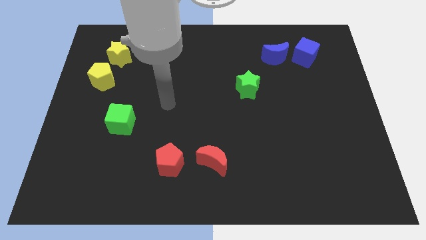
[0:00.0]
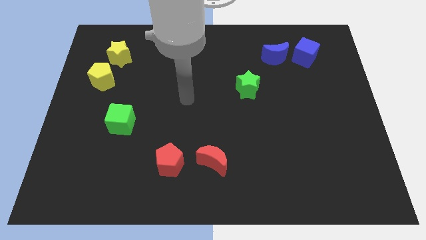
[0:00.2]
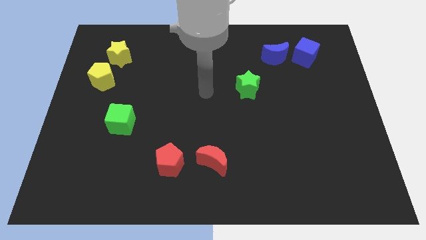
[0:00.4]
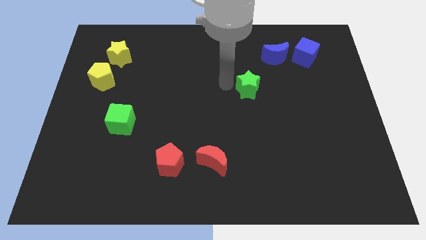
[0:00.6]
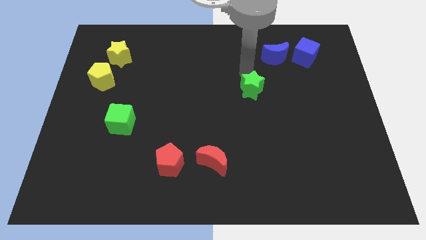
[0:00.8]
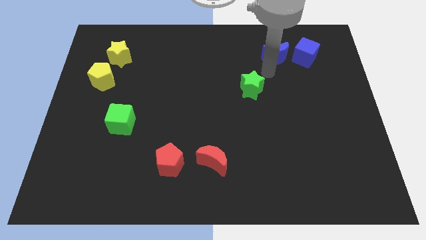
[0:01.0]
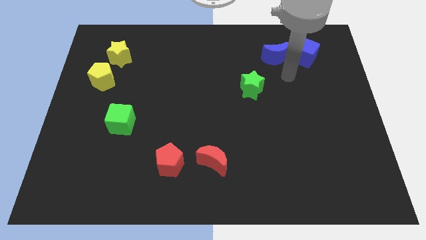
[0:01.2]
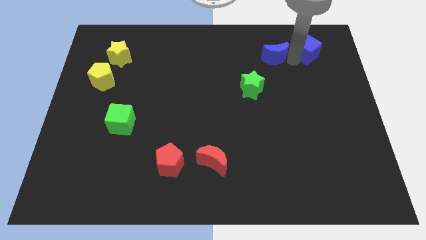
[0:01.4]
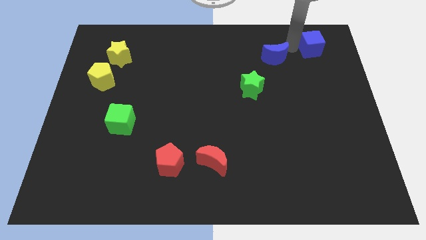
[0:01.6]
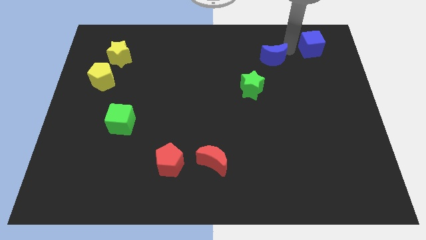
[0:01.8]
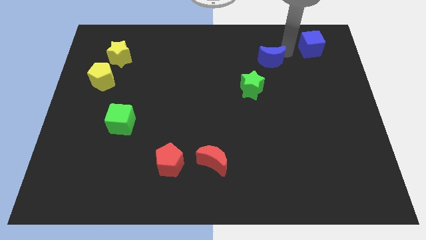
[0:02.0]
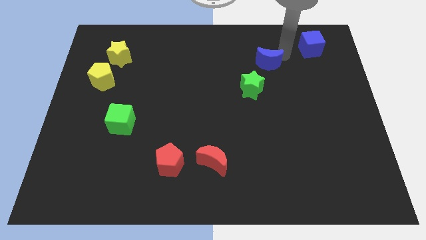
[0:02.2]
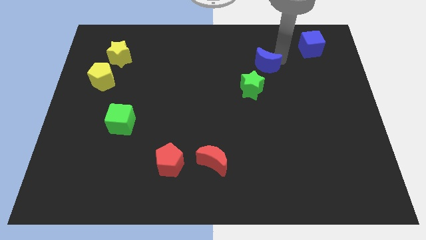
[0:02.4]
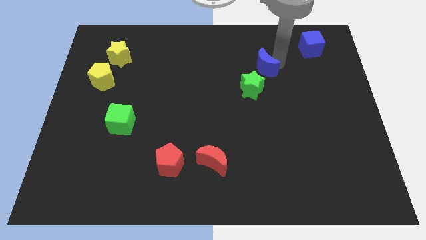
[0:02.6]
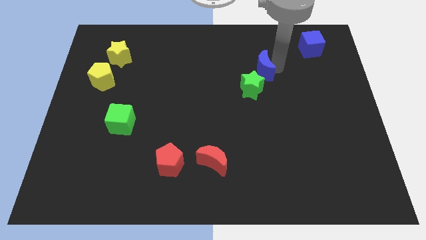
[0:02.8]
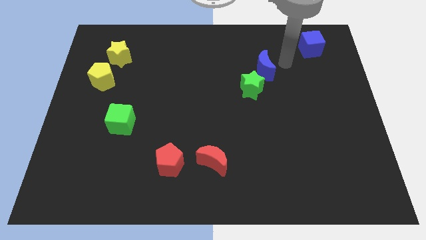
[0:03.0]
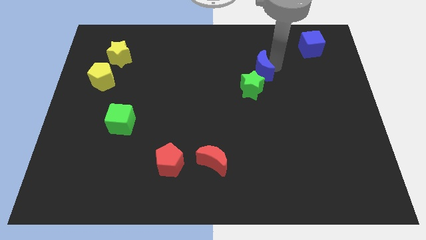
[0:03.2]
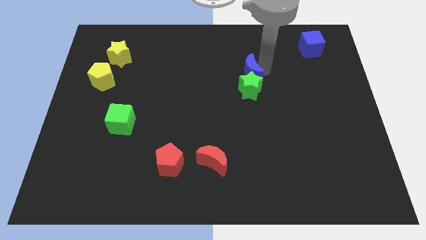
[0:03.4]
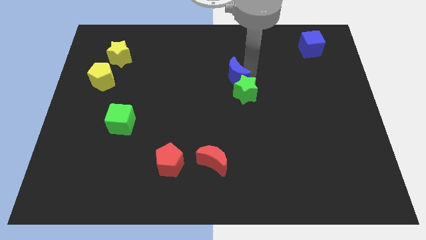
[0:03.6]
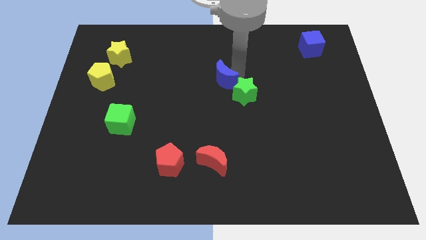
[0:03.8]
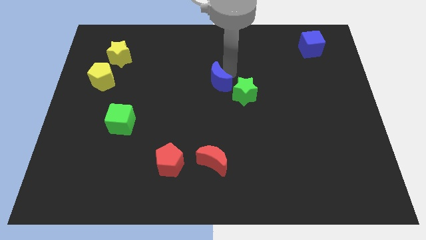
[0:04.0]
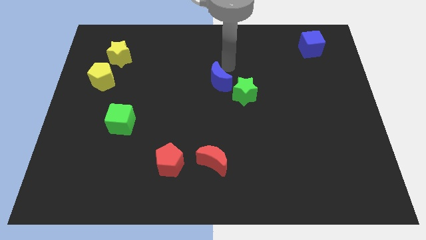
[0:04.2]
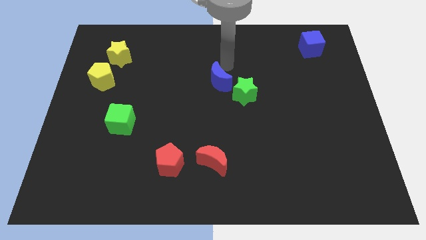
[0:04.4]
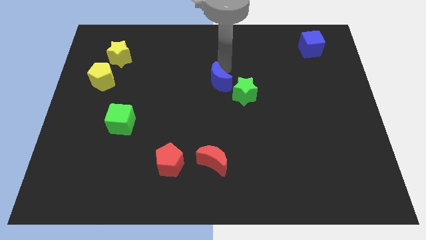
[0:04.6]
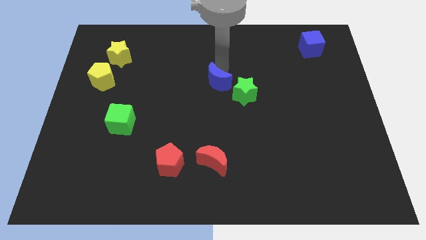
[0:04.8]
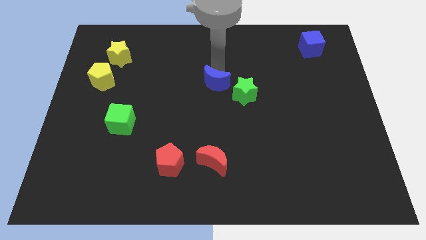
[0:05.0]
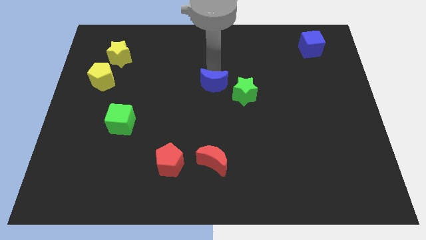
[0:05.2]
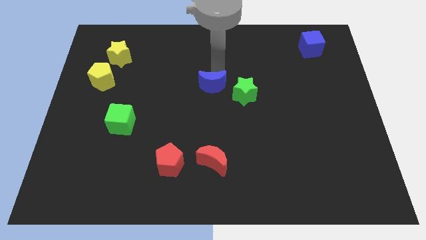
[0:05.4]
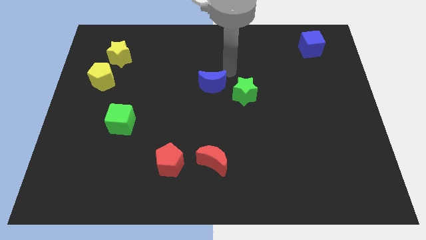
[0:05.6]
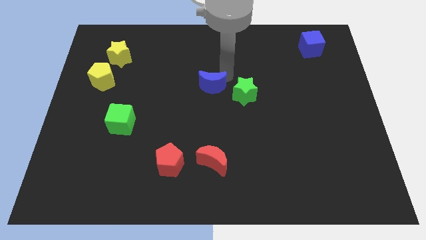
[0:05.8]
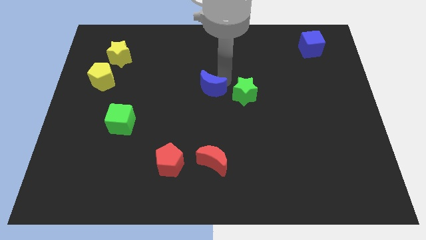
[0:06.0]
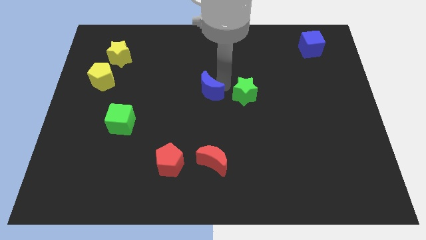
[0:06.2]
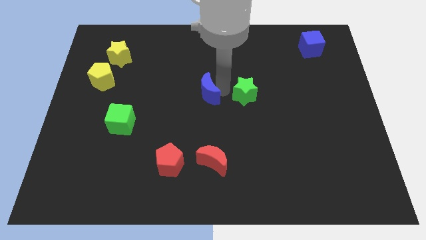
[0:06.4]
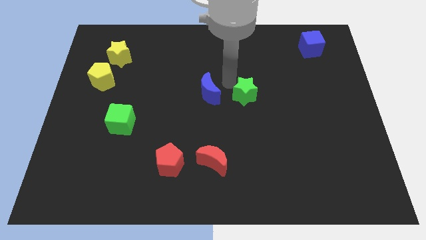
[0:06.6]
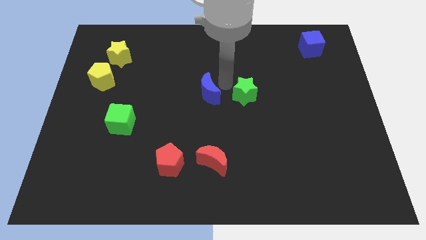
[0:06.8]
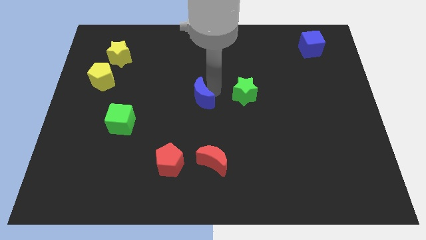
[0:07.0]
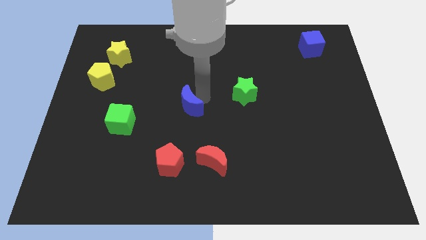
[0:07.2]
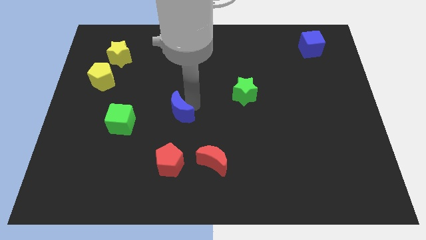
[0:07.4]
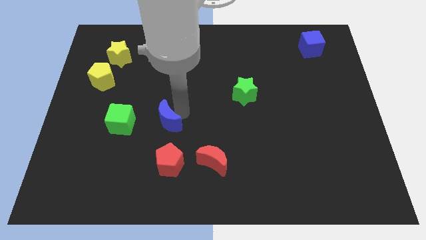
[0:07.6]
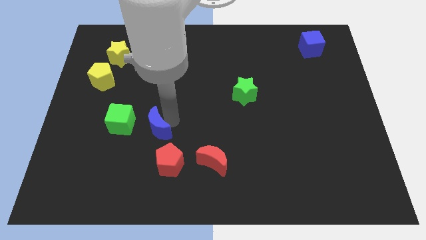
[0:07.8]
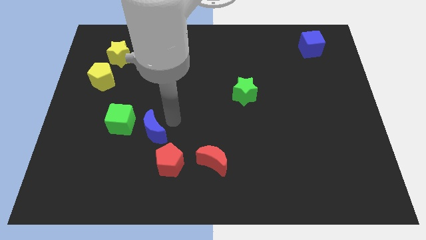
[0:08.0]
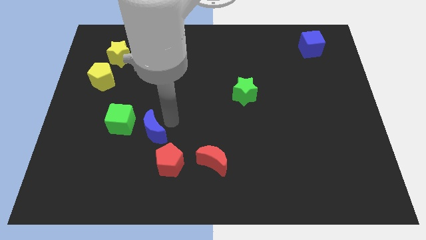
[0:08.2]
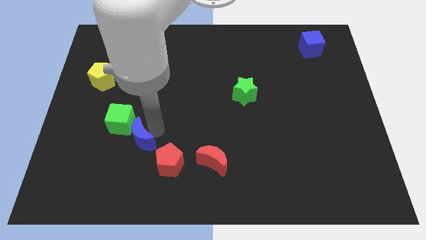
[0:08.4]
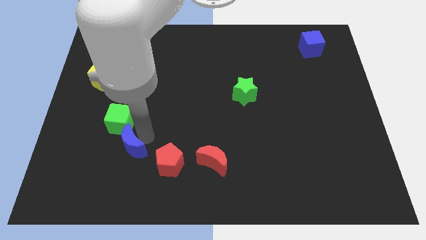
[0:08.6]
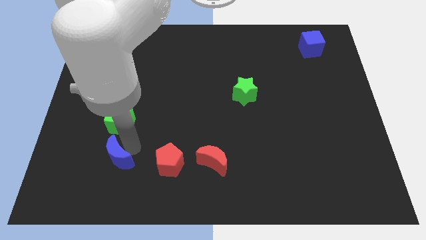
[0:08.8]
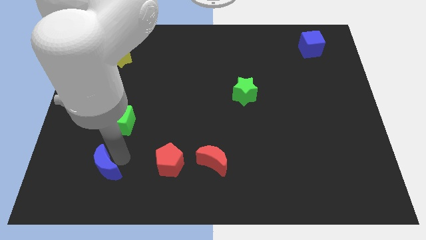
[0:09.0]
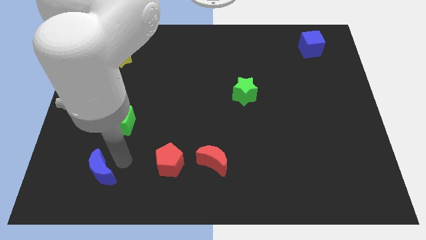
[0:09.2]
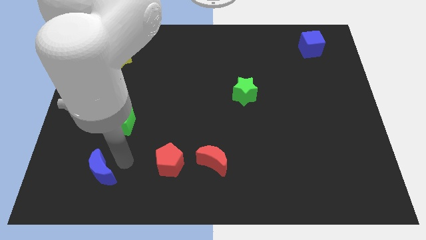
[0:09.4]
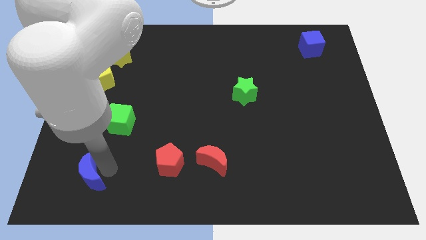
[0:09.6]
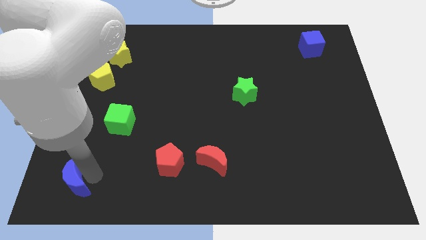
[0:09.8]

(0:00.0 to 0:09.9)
put the blue moon to the bottom left corner

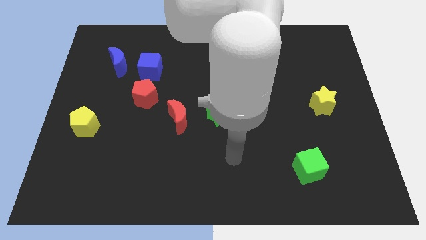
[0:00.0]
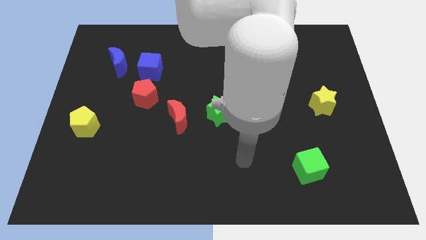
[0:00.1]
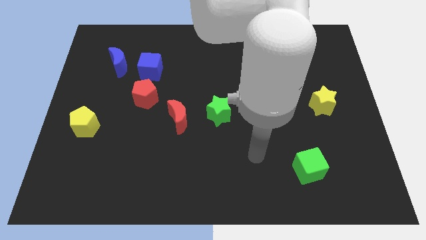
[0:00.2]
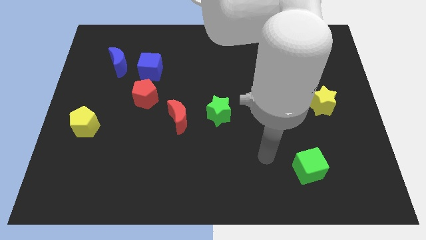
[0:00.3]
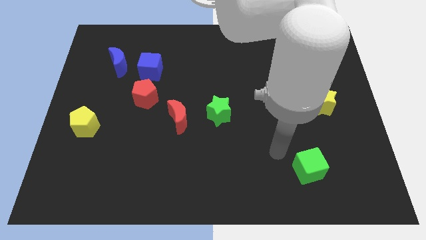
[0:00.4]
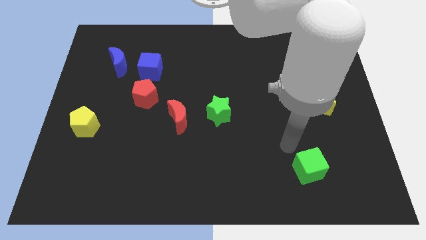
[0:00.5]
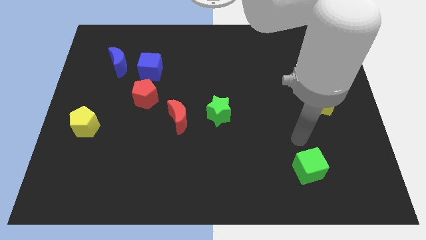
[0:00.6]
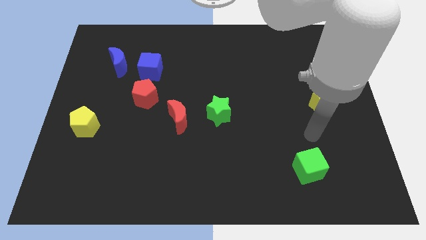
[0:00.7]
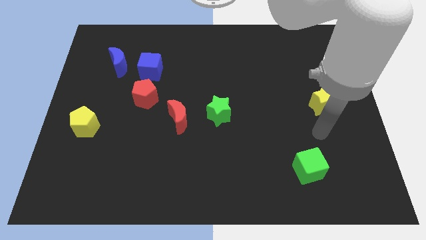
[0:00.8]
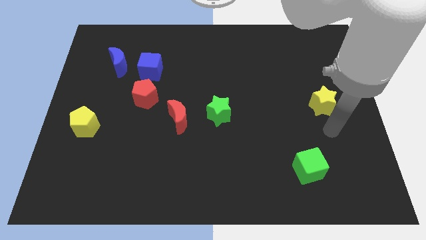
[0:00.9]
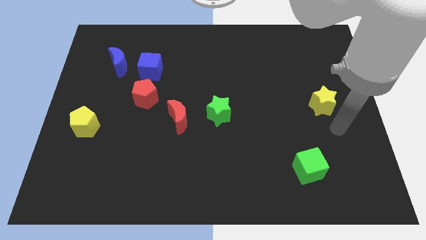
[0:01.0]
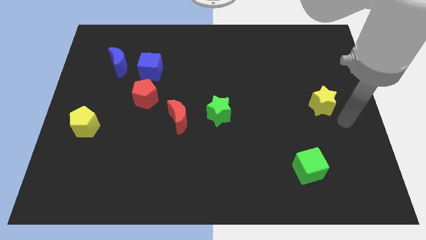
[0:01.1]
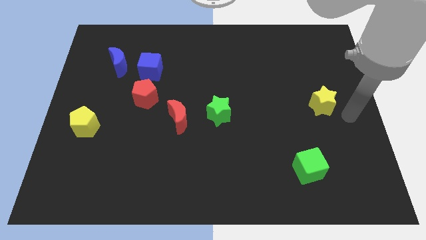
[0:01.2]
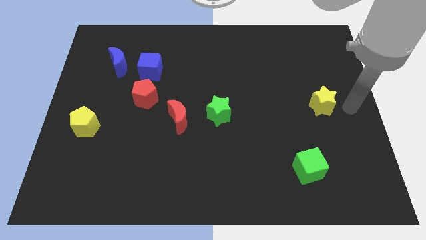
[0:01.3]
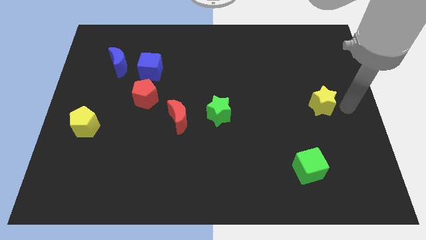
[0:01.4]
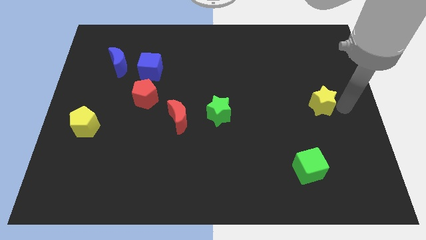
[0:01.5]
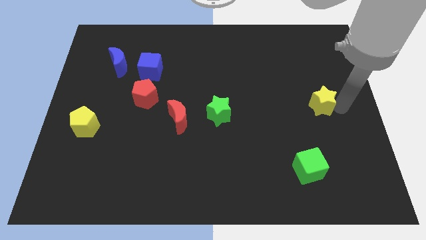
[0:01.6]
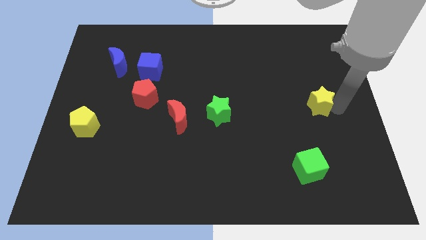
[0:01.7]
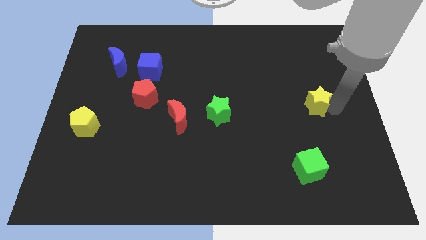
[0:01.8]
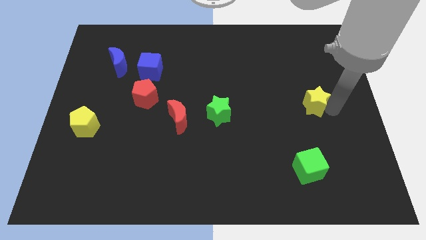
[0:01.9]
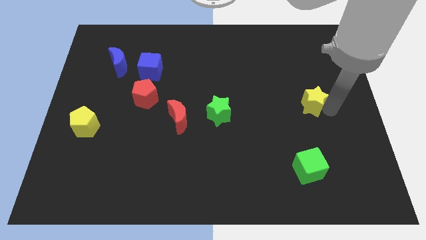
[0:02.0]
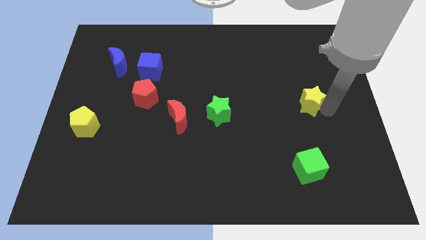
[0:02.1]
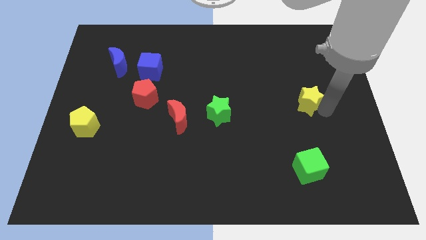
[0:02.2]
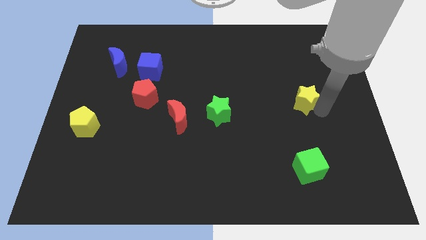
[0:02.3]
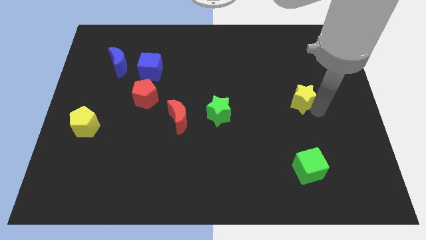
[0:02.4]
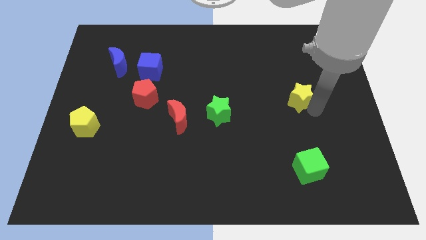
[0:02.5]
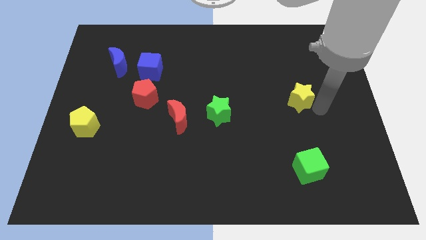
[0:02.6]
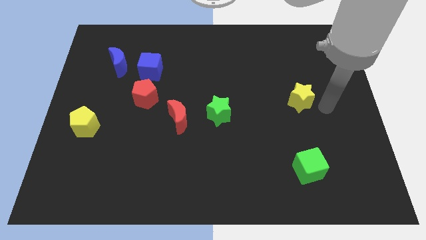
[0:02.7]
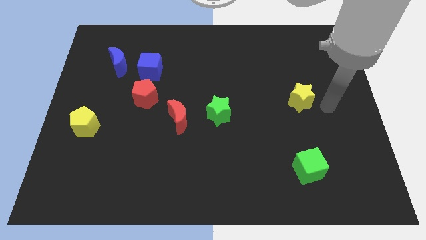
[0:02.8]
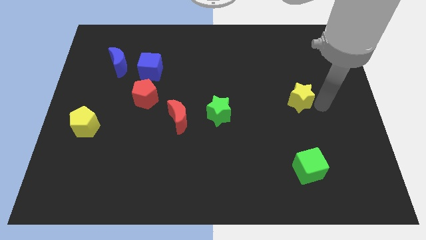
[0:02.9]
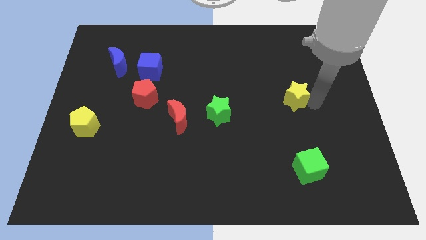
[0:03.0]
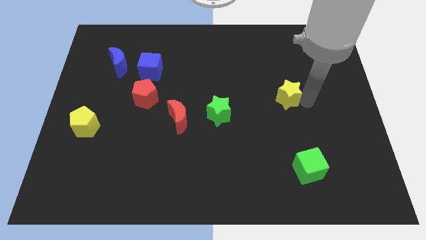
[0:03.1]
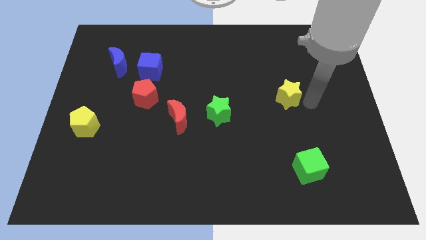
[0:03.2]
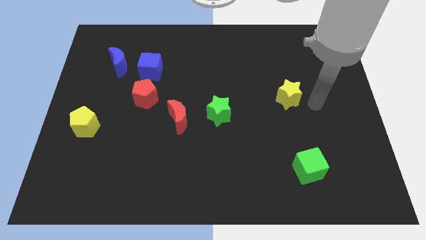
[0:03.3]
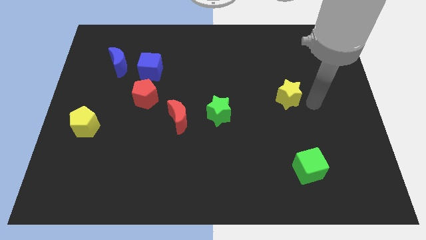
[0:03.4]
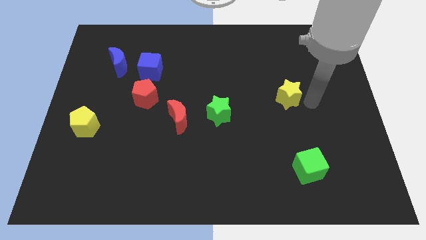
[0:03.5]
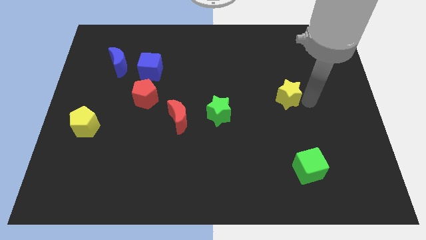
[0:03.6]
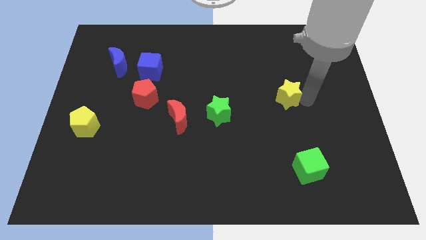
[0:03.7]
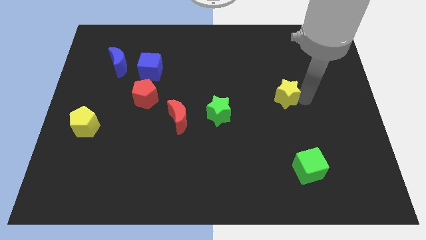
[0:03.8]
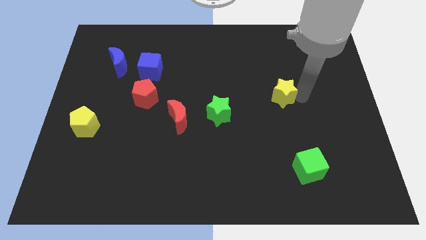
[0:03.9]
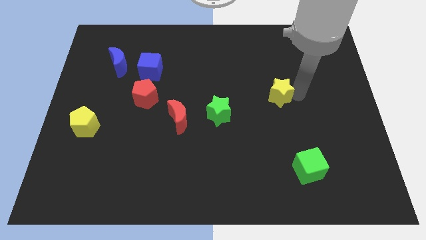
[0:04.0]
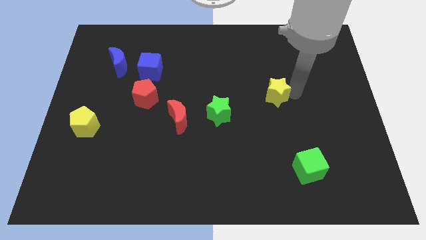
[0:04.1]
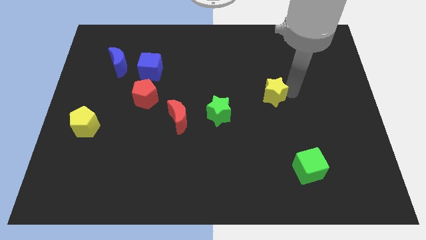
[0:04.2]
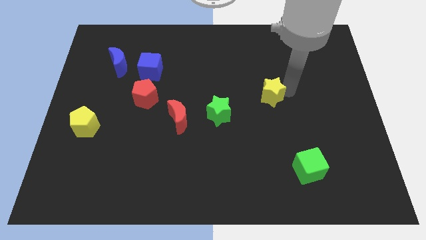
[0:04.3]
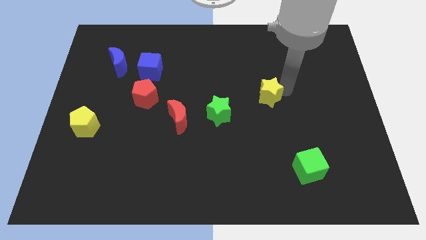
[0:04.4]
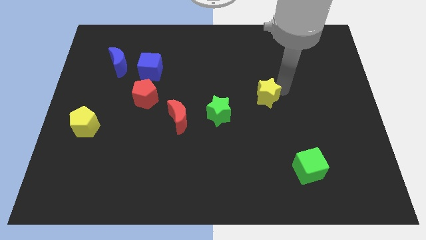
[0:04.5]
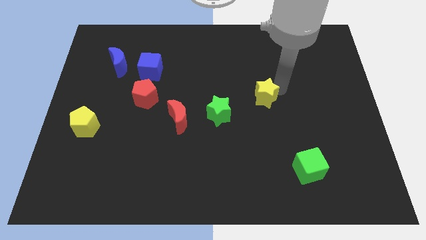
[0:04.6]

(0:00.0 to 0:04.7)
push the yellow star to the middle of the board
